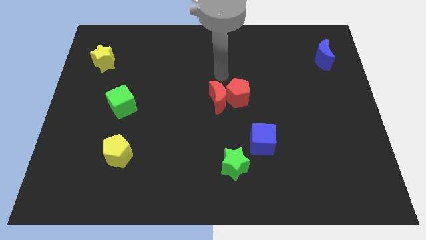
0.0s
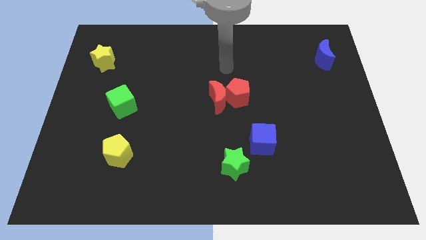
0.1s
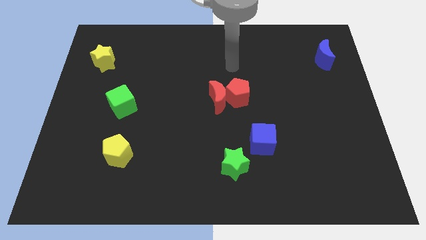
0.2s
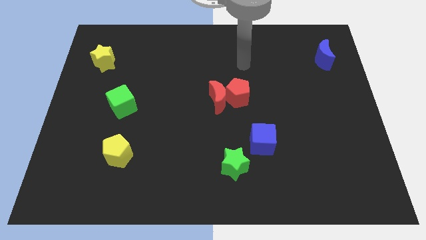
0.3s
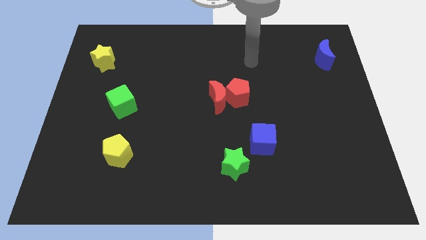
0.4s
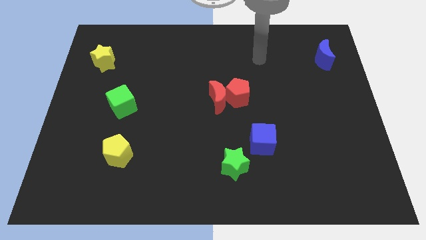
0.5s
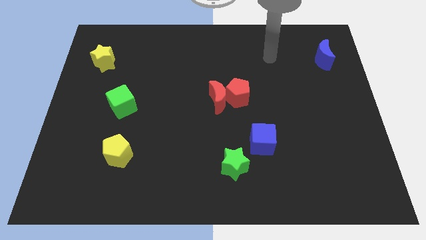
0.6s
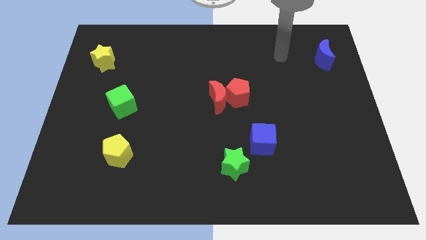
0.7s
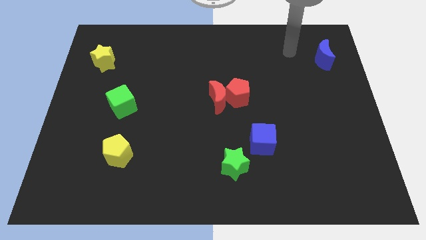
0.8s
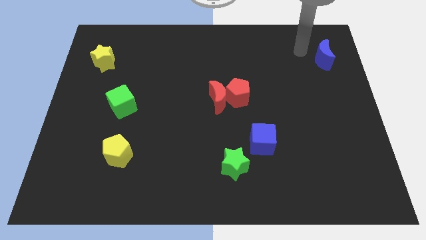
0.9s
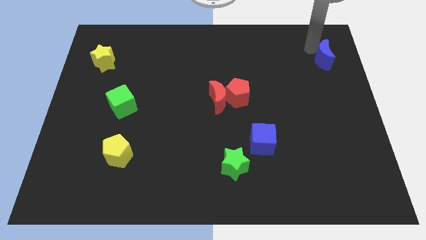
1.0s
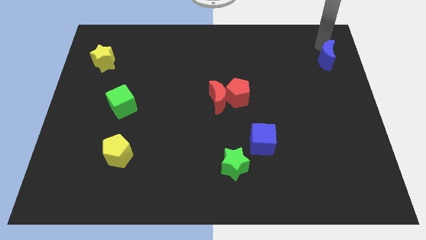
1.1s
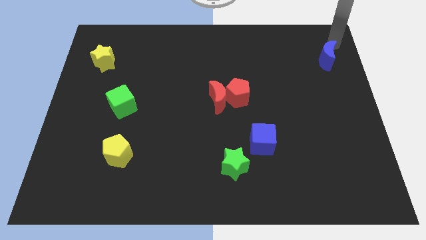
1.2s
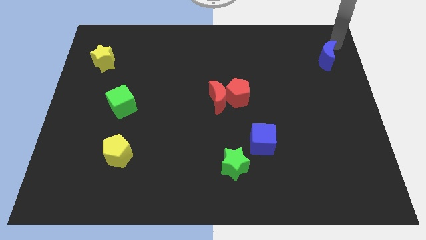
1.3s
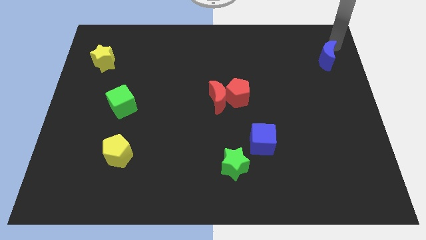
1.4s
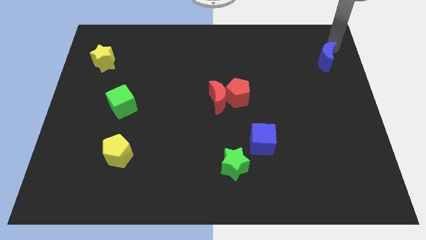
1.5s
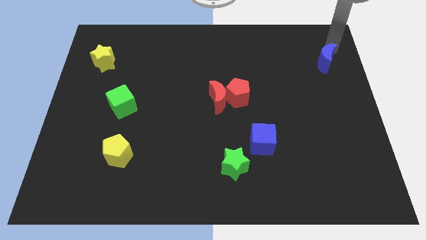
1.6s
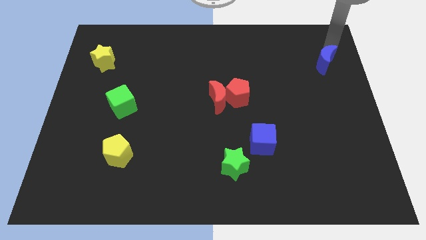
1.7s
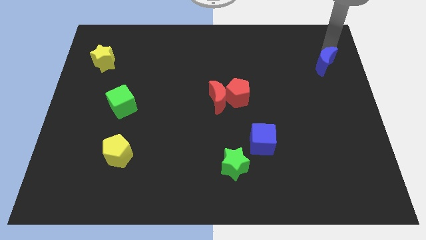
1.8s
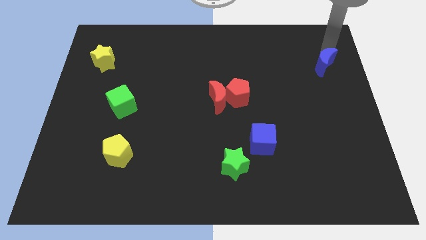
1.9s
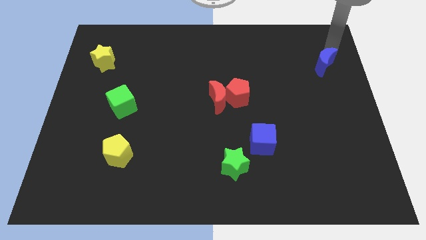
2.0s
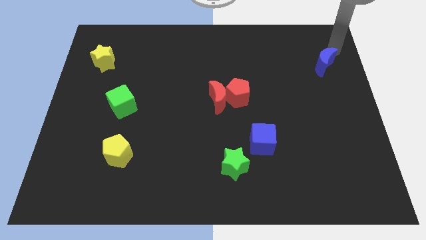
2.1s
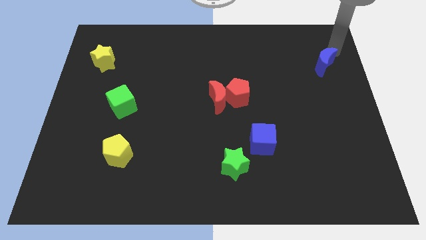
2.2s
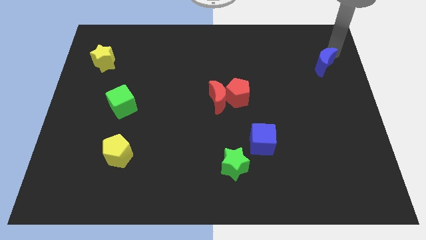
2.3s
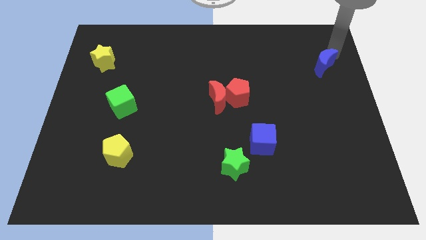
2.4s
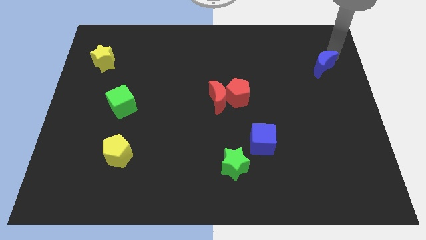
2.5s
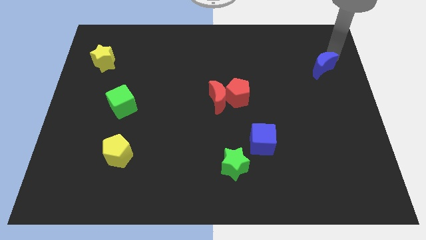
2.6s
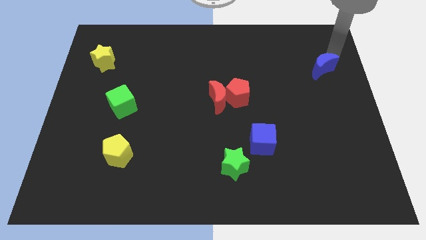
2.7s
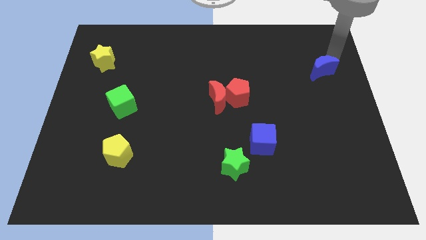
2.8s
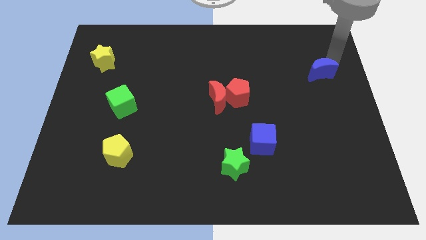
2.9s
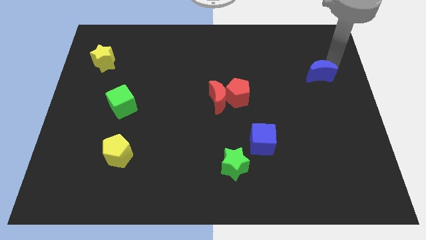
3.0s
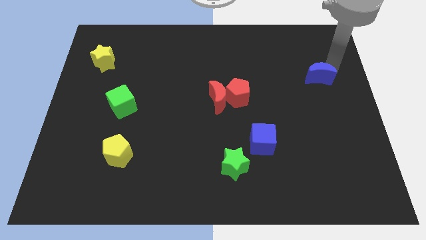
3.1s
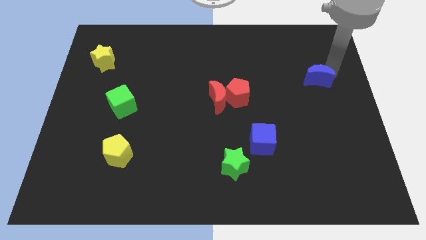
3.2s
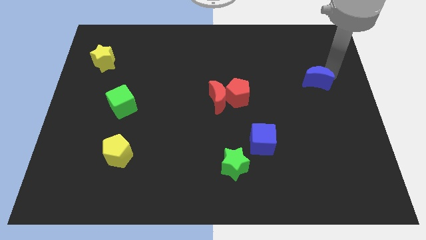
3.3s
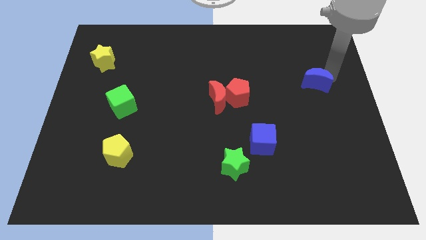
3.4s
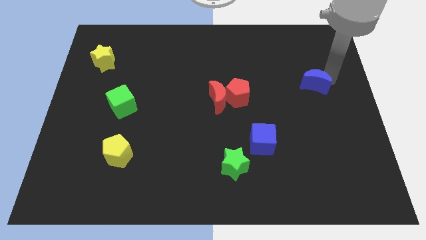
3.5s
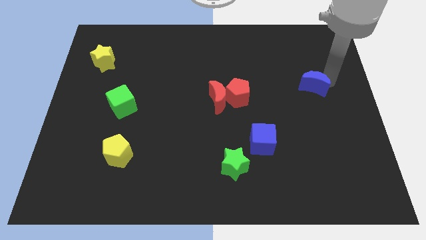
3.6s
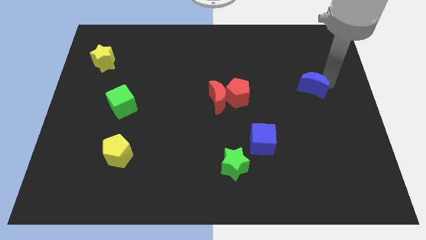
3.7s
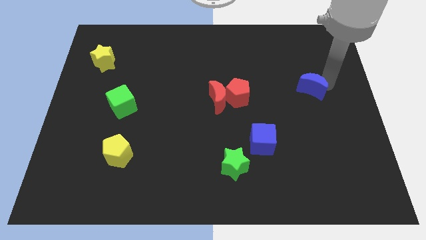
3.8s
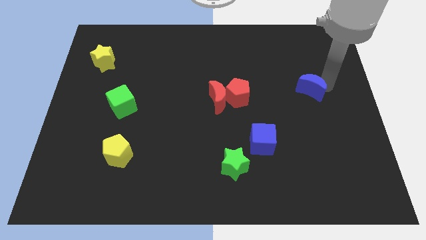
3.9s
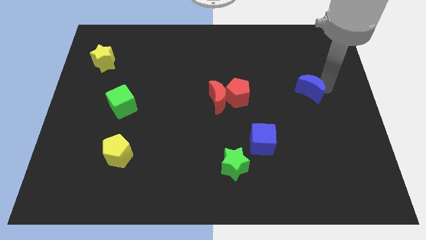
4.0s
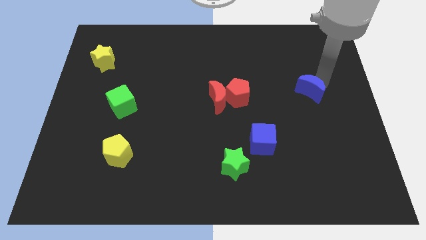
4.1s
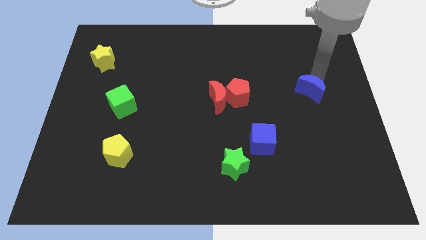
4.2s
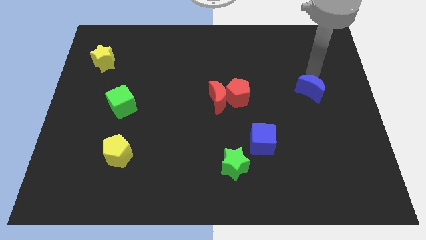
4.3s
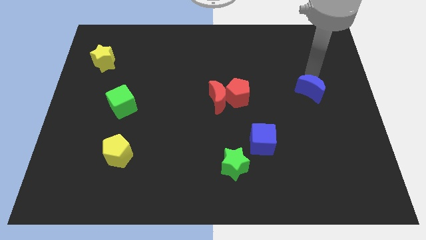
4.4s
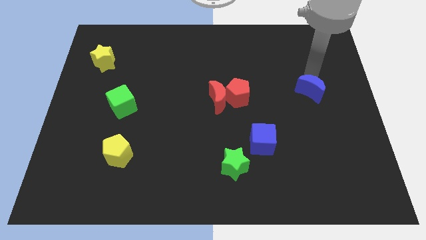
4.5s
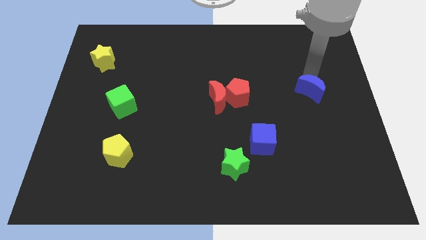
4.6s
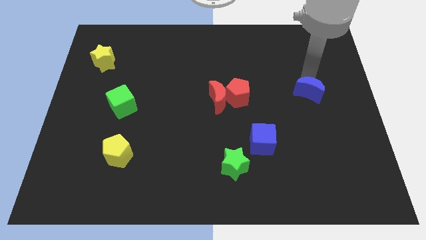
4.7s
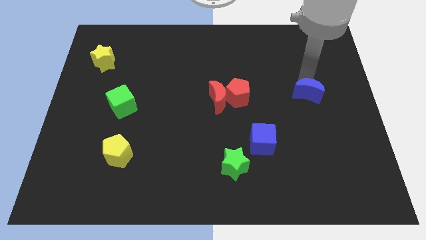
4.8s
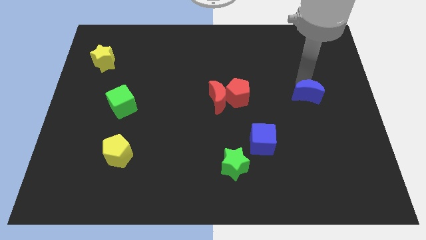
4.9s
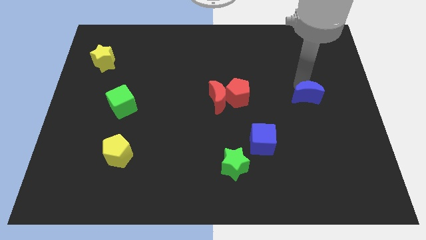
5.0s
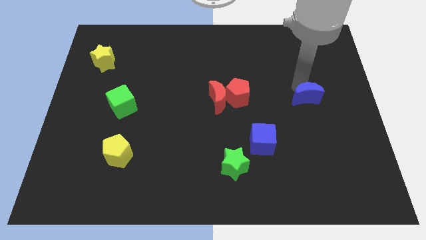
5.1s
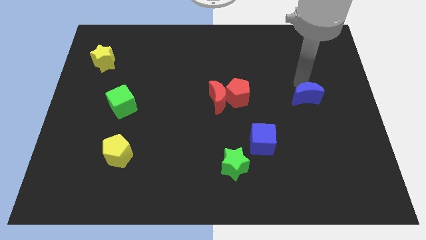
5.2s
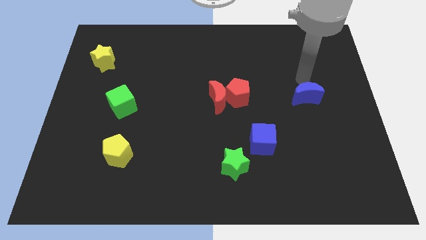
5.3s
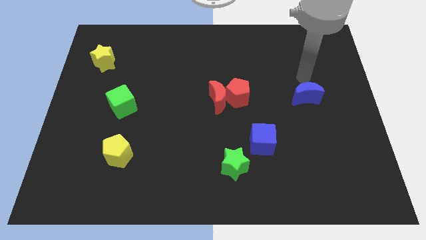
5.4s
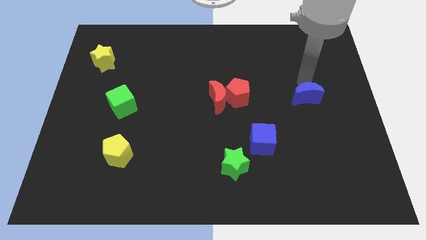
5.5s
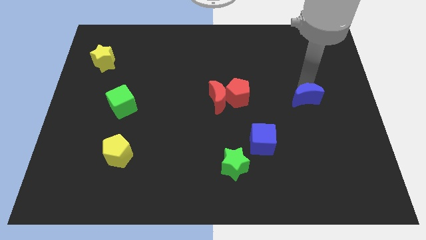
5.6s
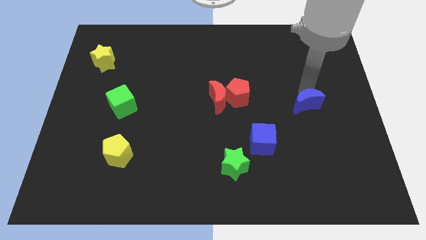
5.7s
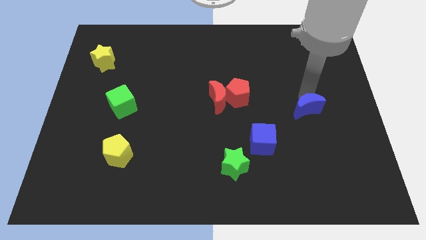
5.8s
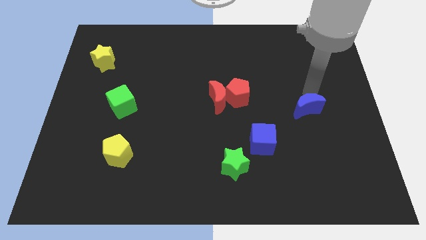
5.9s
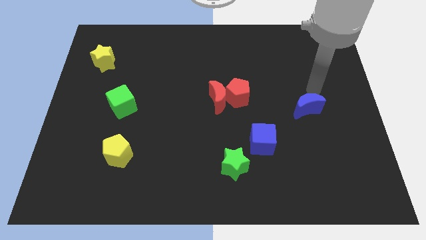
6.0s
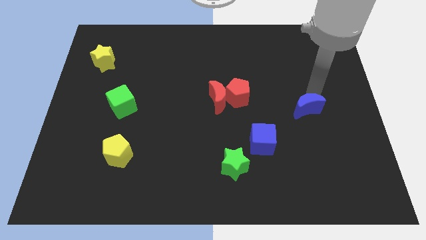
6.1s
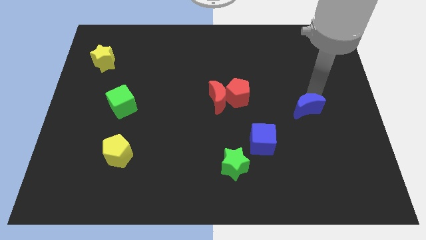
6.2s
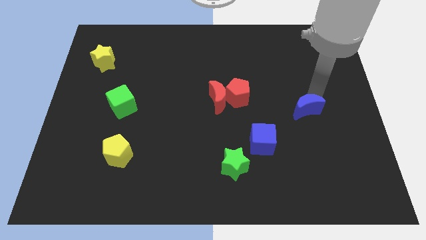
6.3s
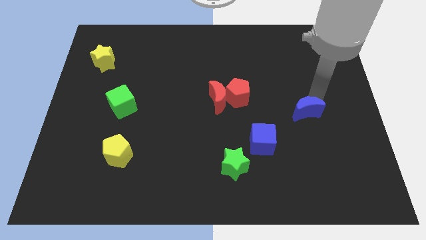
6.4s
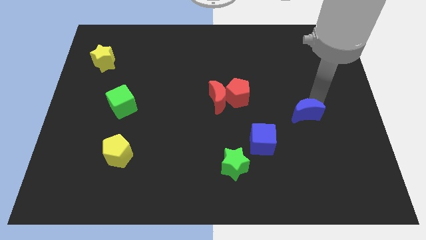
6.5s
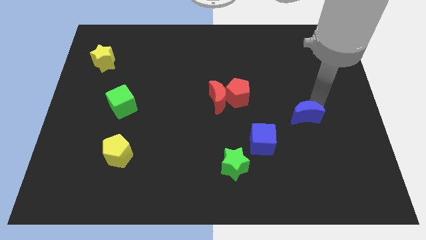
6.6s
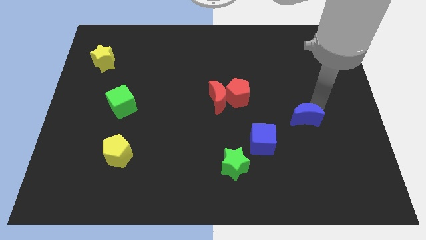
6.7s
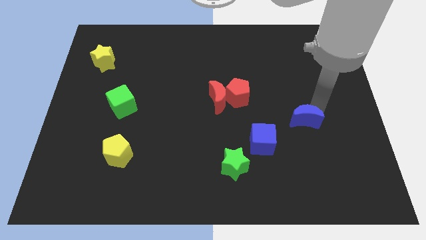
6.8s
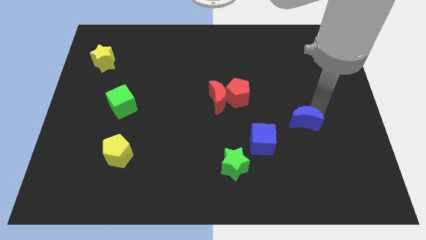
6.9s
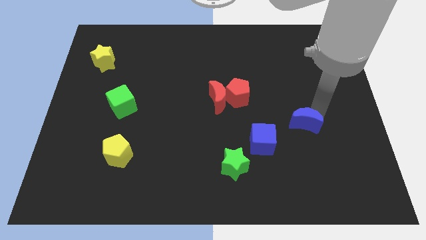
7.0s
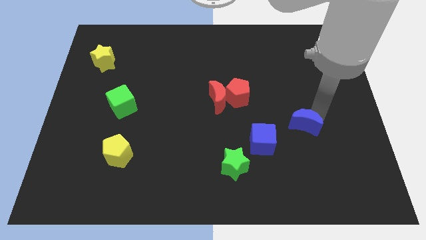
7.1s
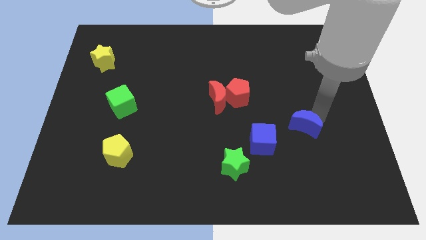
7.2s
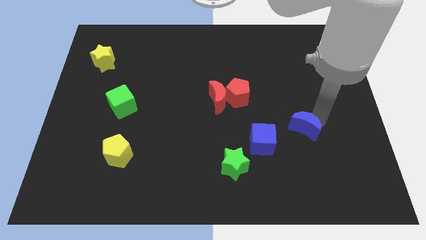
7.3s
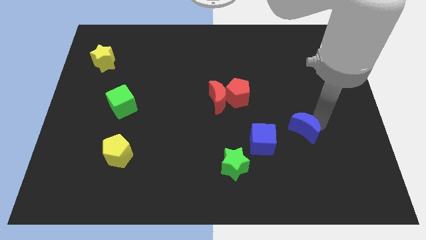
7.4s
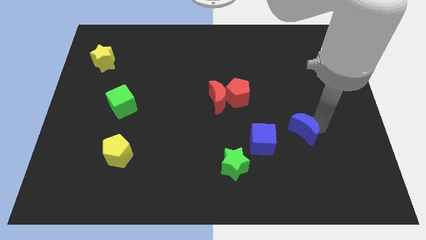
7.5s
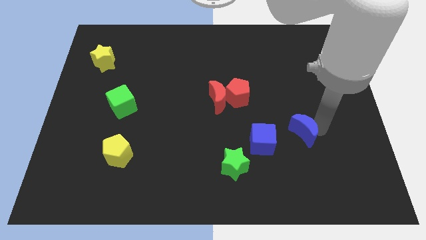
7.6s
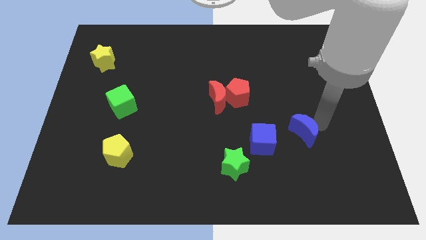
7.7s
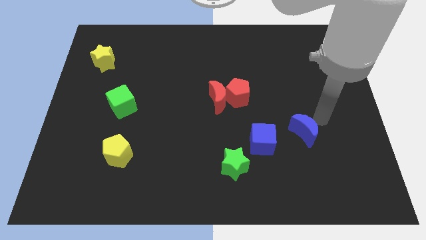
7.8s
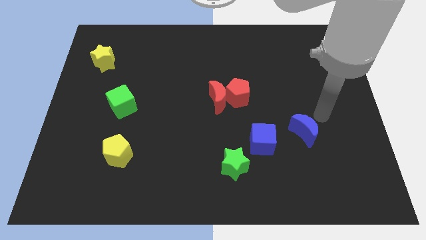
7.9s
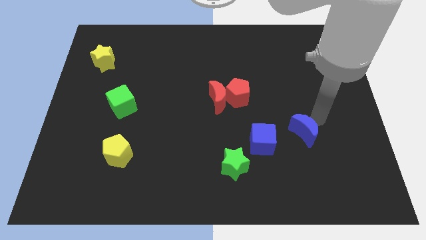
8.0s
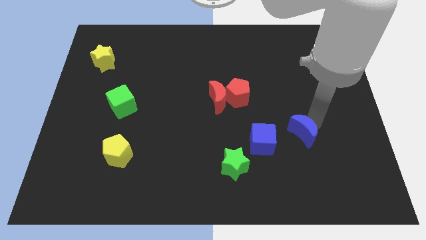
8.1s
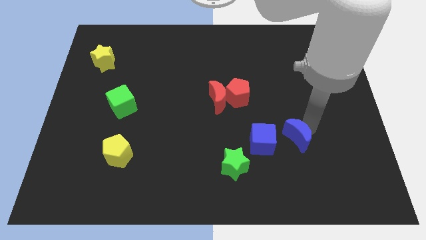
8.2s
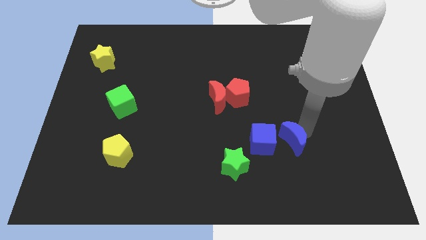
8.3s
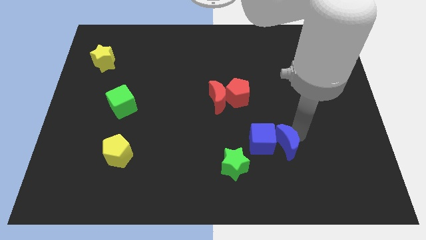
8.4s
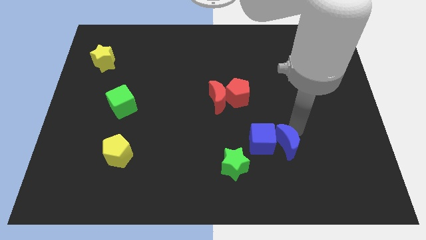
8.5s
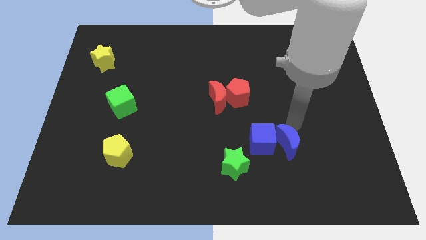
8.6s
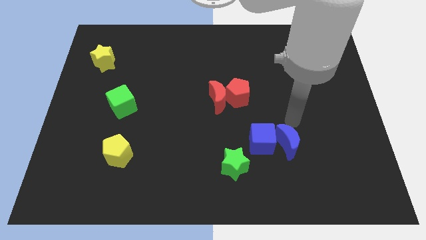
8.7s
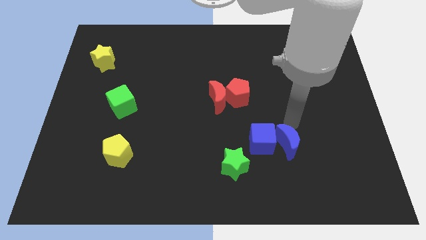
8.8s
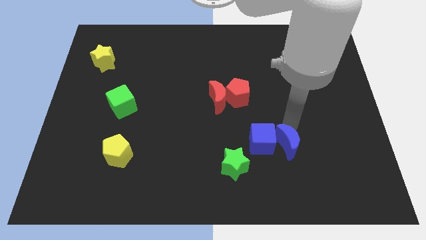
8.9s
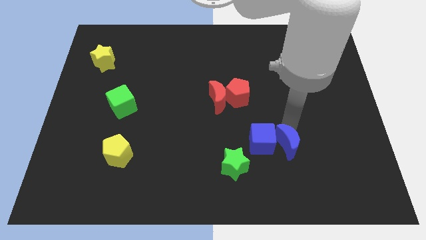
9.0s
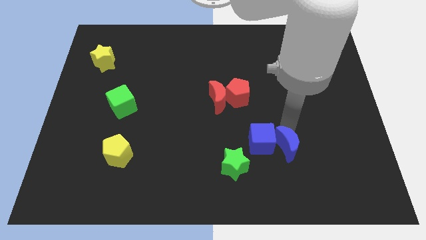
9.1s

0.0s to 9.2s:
move the blue moon to the right side of the green star
